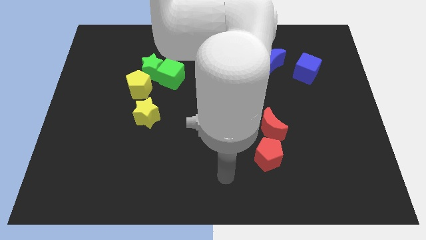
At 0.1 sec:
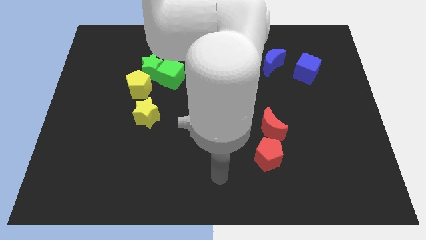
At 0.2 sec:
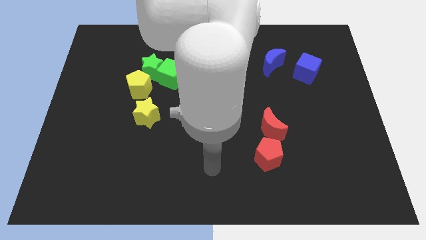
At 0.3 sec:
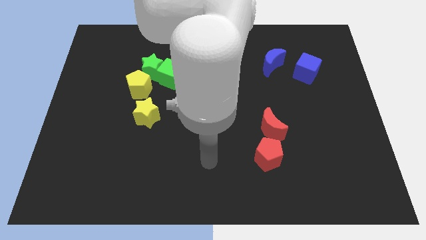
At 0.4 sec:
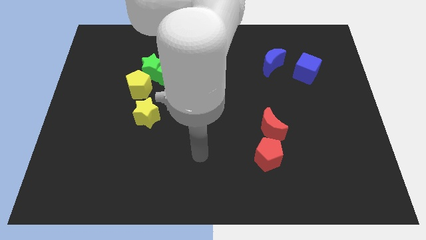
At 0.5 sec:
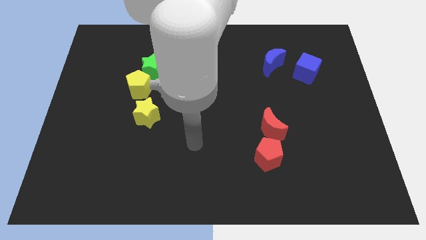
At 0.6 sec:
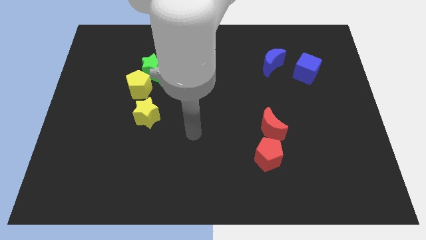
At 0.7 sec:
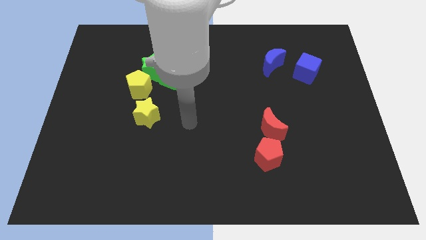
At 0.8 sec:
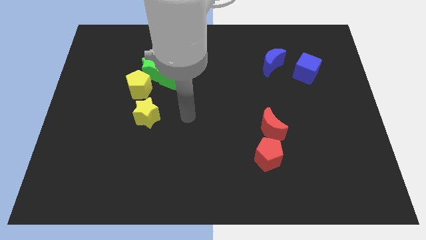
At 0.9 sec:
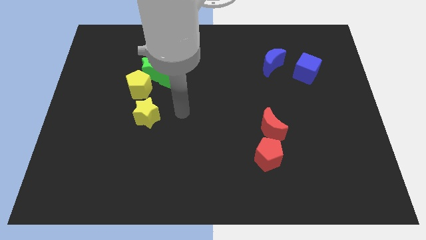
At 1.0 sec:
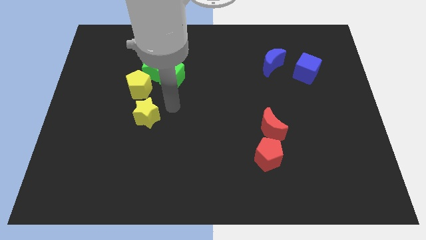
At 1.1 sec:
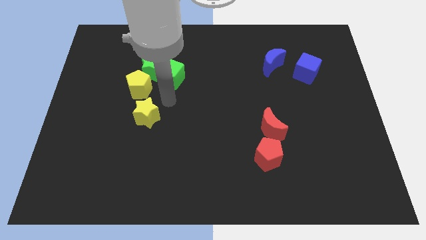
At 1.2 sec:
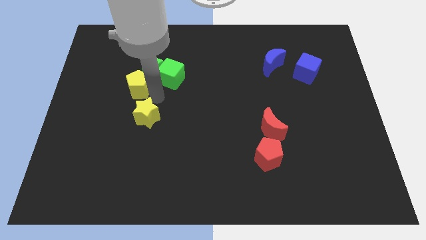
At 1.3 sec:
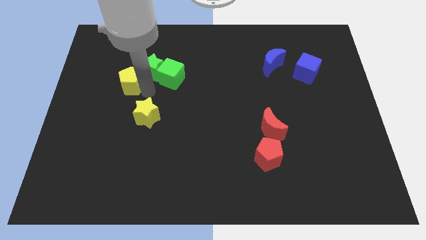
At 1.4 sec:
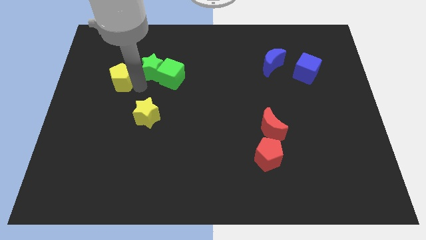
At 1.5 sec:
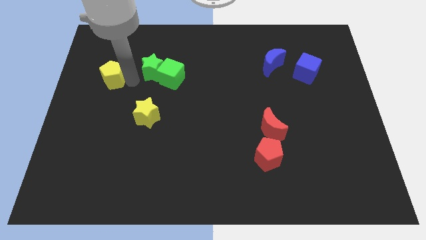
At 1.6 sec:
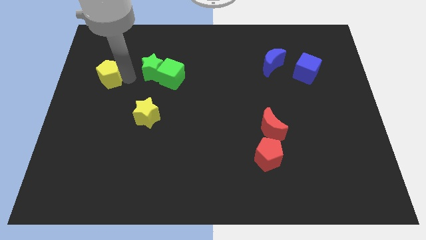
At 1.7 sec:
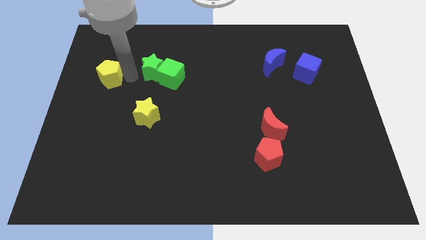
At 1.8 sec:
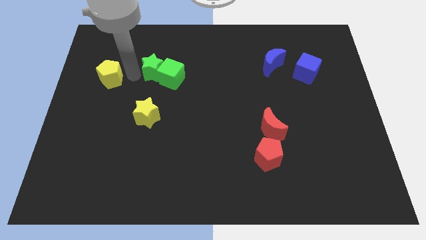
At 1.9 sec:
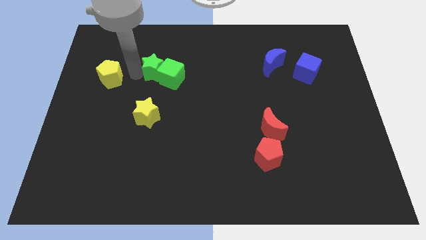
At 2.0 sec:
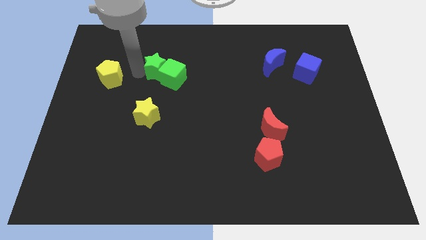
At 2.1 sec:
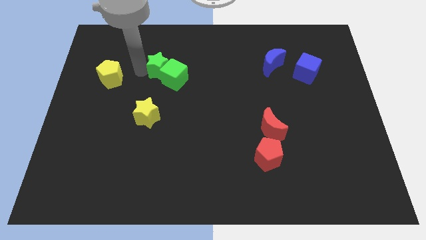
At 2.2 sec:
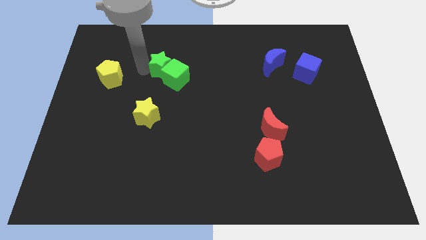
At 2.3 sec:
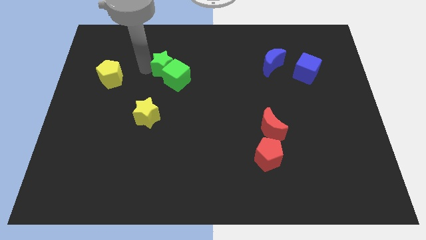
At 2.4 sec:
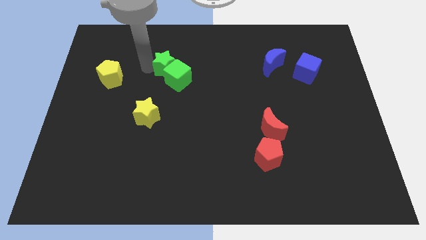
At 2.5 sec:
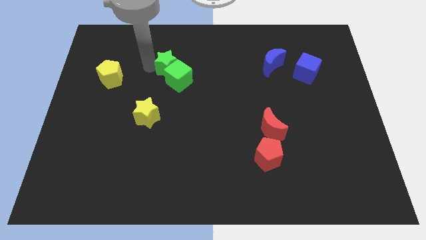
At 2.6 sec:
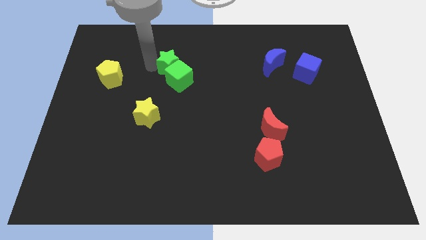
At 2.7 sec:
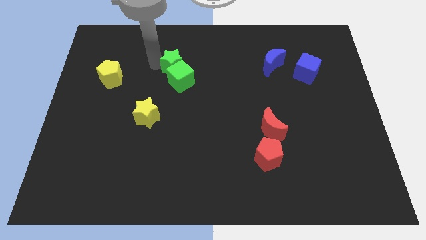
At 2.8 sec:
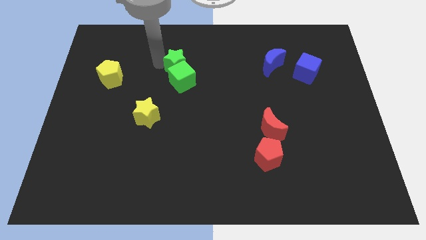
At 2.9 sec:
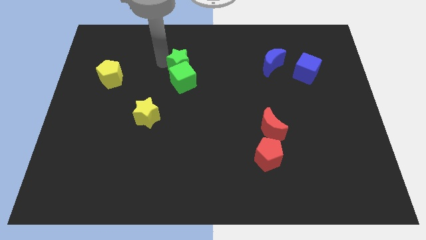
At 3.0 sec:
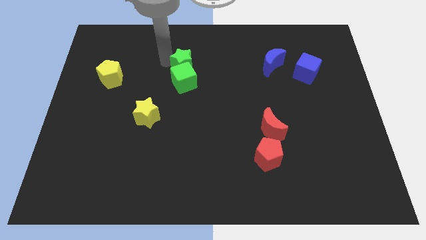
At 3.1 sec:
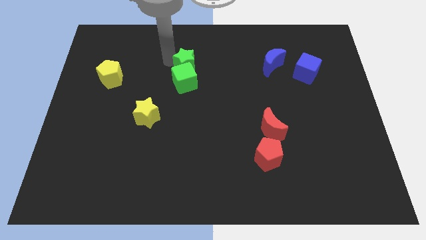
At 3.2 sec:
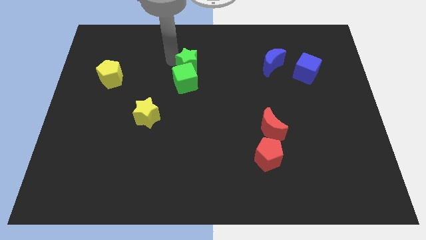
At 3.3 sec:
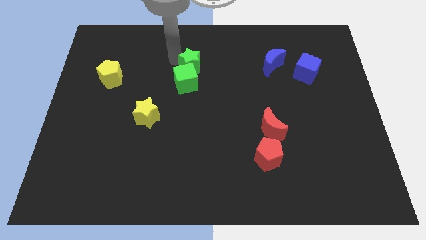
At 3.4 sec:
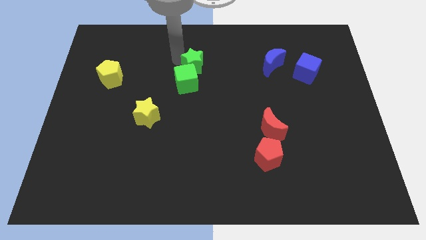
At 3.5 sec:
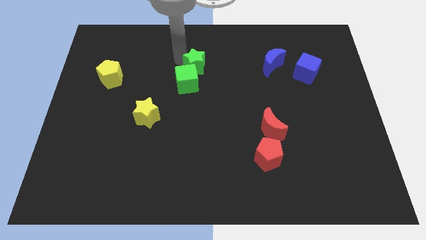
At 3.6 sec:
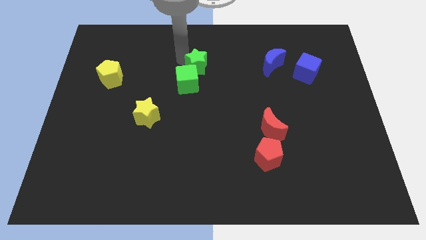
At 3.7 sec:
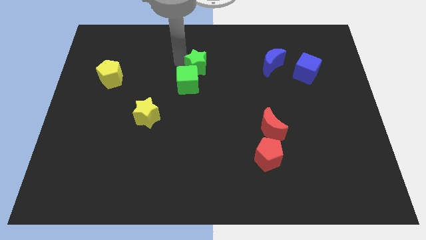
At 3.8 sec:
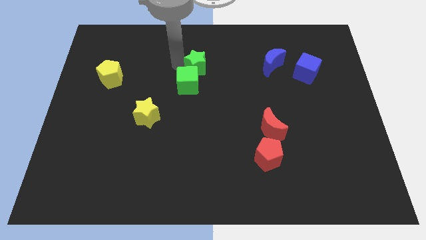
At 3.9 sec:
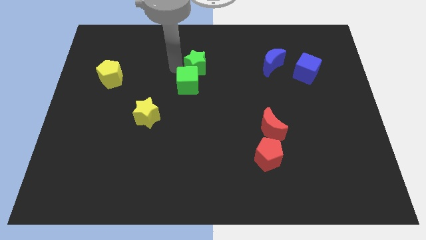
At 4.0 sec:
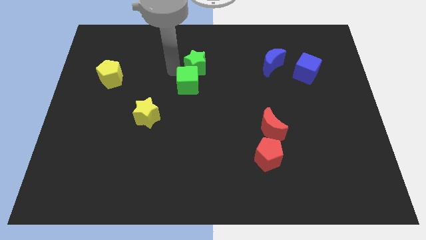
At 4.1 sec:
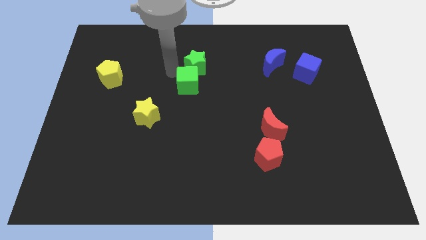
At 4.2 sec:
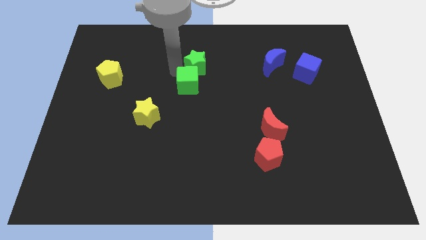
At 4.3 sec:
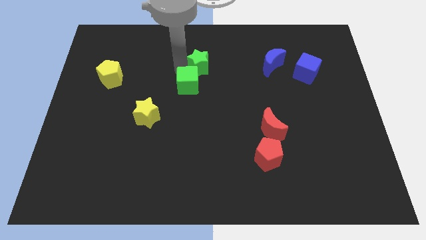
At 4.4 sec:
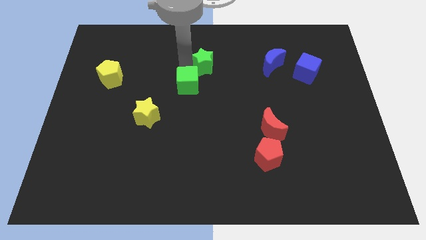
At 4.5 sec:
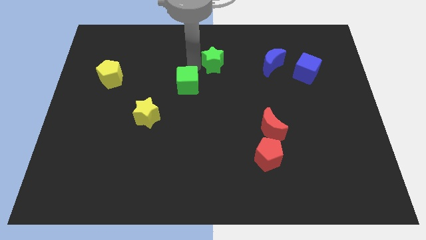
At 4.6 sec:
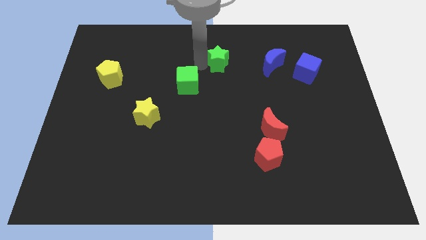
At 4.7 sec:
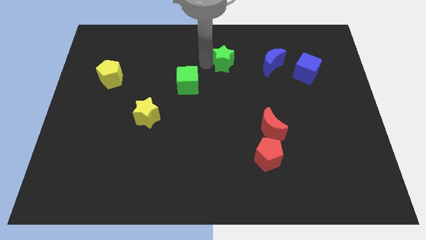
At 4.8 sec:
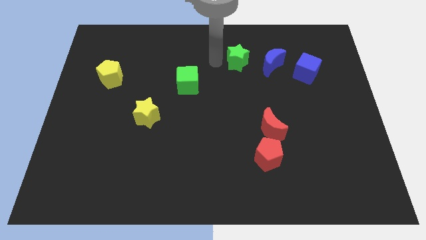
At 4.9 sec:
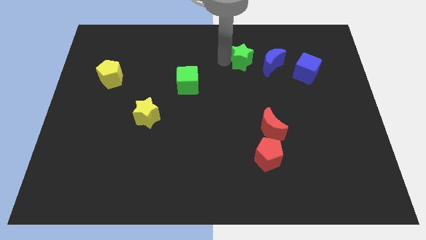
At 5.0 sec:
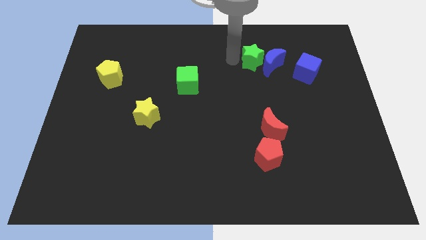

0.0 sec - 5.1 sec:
push the green star towards the blue moon

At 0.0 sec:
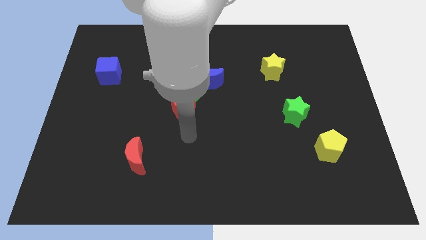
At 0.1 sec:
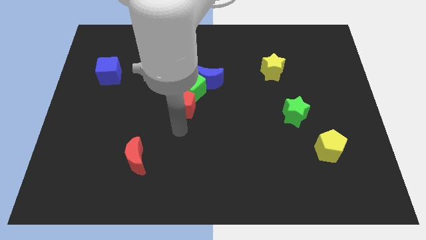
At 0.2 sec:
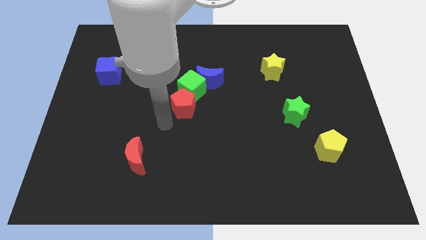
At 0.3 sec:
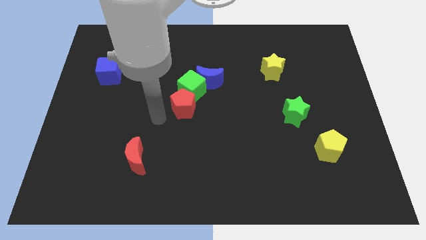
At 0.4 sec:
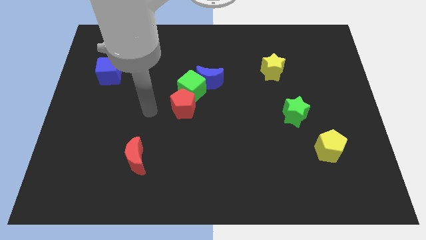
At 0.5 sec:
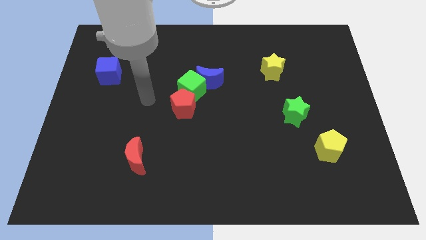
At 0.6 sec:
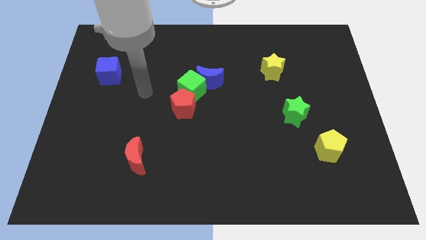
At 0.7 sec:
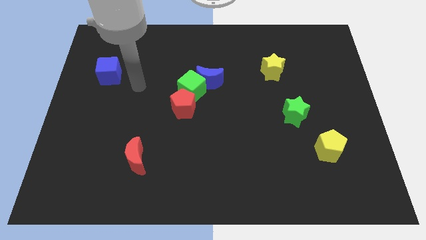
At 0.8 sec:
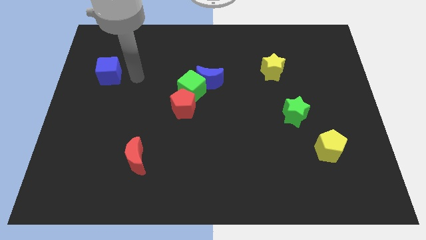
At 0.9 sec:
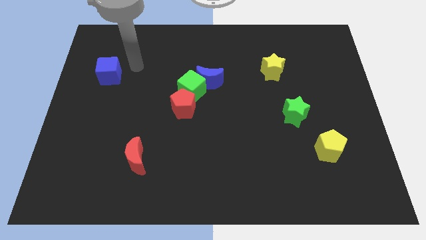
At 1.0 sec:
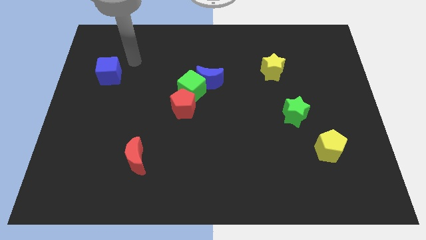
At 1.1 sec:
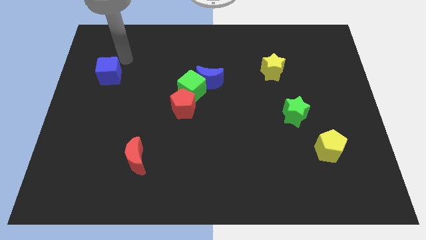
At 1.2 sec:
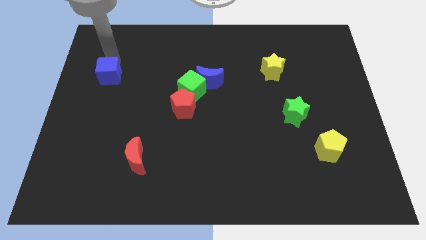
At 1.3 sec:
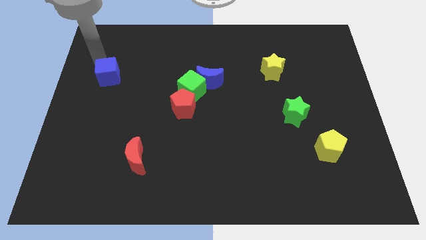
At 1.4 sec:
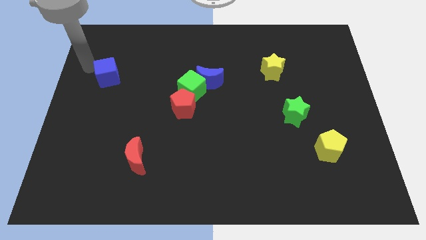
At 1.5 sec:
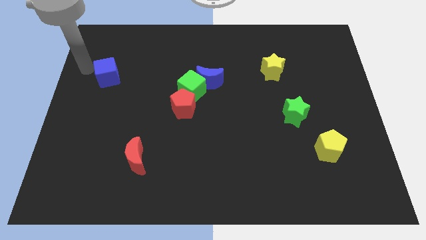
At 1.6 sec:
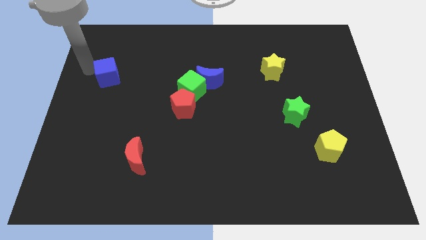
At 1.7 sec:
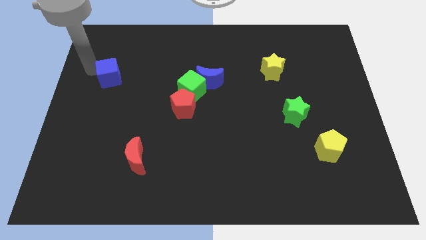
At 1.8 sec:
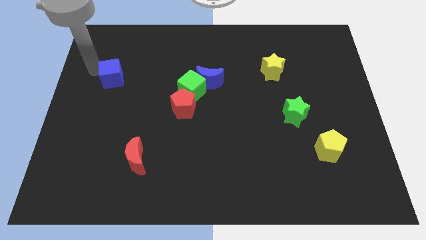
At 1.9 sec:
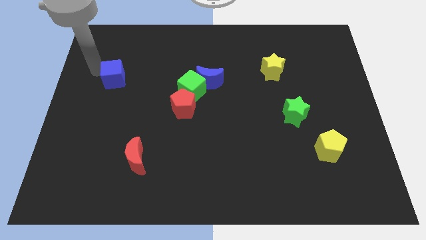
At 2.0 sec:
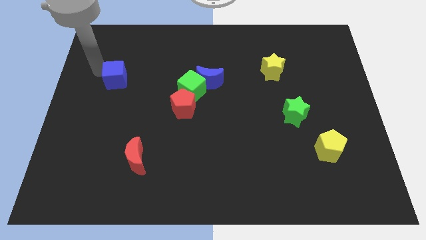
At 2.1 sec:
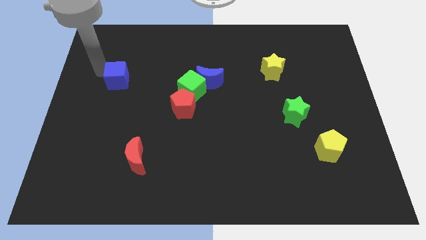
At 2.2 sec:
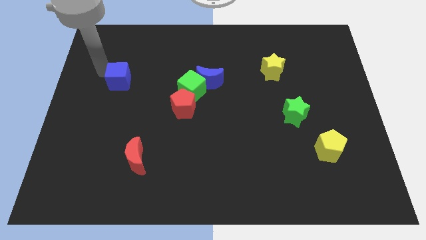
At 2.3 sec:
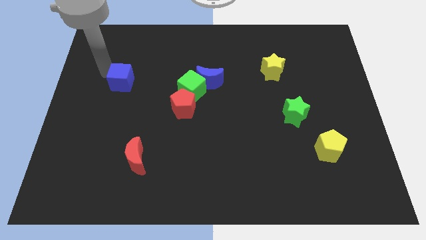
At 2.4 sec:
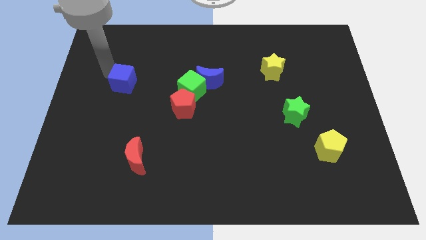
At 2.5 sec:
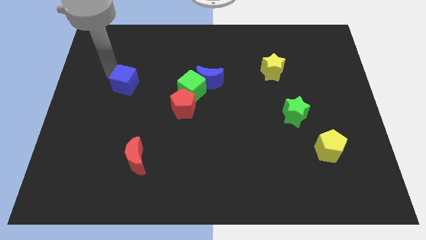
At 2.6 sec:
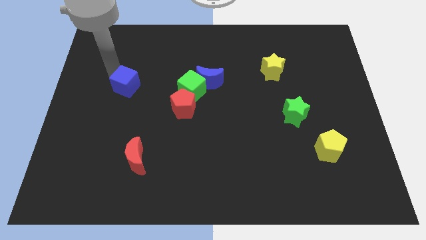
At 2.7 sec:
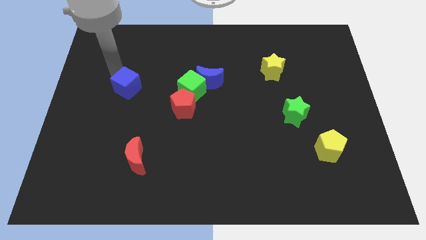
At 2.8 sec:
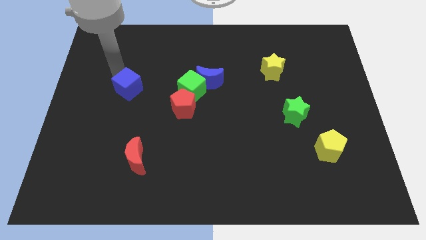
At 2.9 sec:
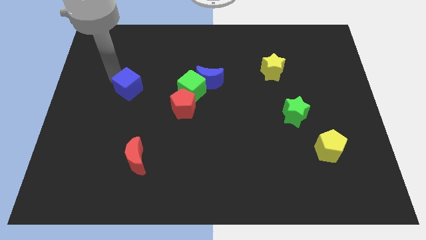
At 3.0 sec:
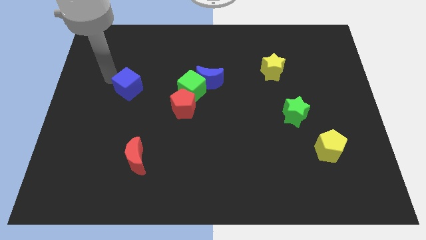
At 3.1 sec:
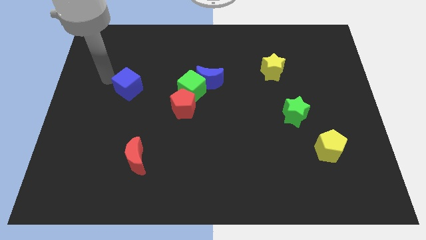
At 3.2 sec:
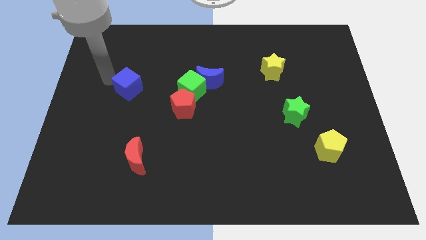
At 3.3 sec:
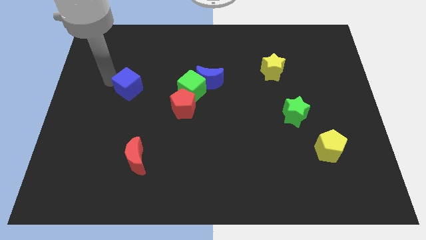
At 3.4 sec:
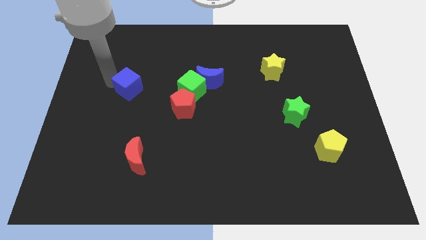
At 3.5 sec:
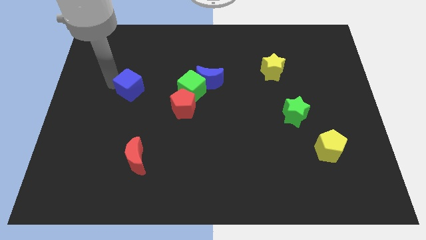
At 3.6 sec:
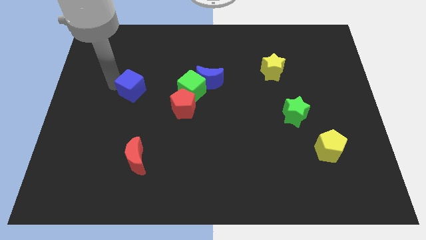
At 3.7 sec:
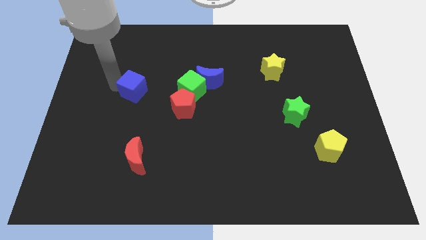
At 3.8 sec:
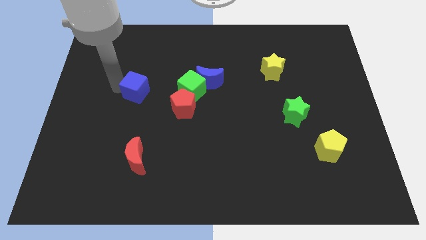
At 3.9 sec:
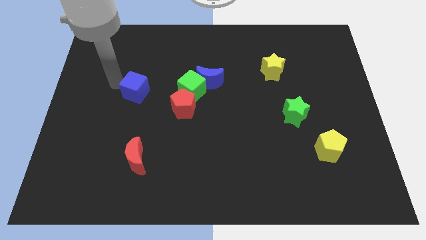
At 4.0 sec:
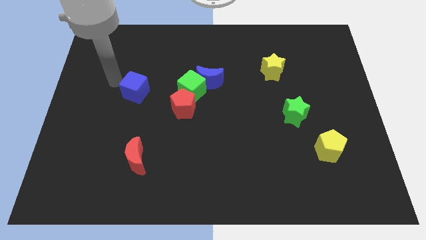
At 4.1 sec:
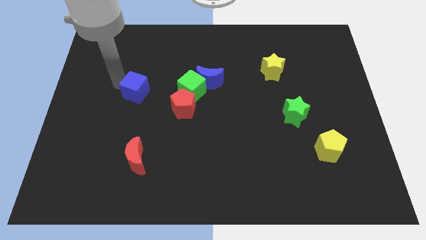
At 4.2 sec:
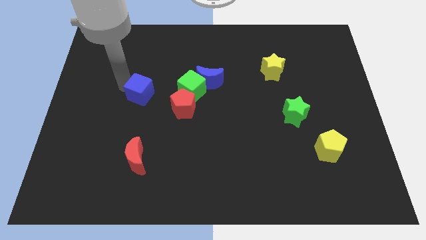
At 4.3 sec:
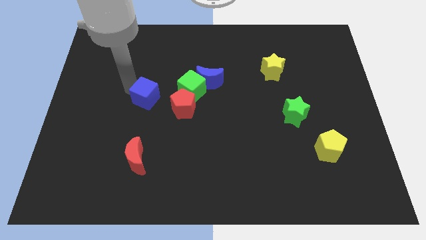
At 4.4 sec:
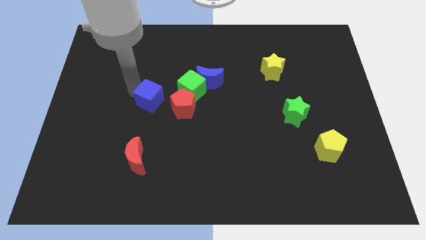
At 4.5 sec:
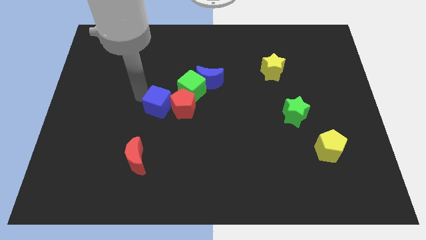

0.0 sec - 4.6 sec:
push the blue cube next to the red pentagon
